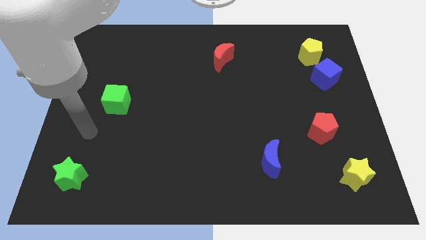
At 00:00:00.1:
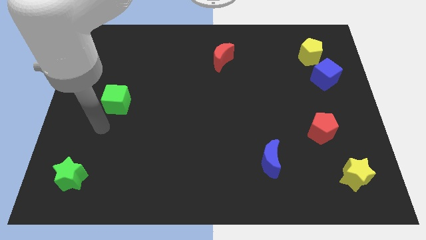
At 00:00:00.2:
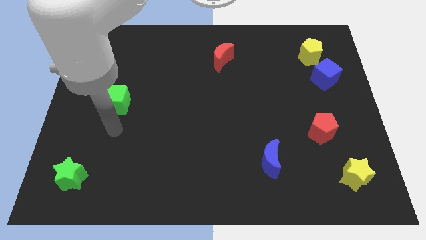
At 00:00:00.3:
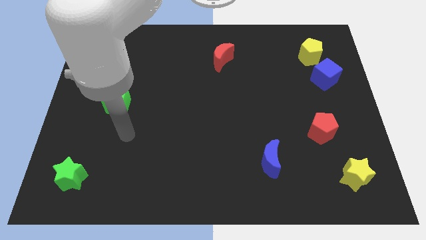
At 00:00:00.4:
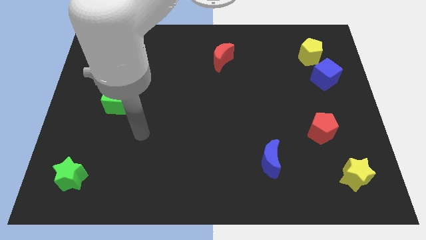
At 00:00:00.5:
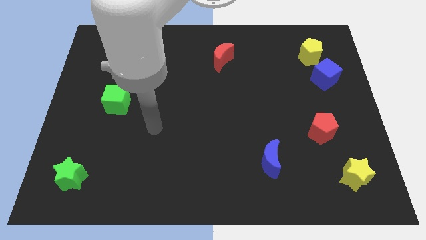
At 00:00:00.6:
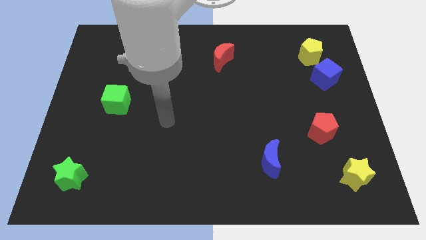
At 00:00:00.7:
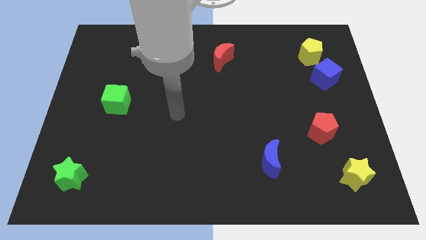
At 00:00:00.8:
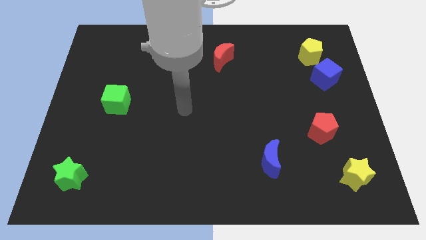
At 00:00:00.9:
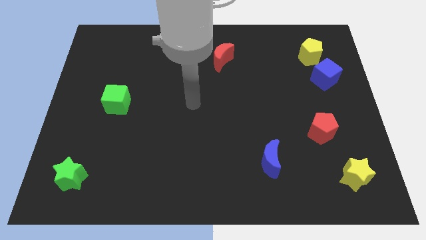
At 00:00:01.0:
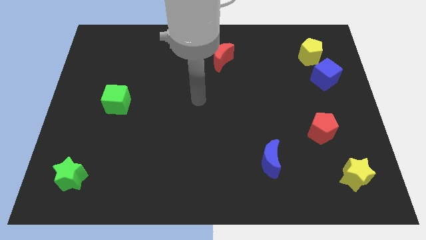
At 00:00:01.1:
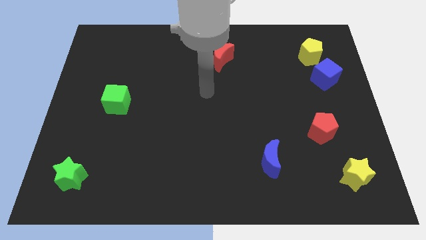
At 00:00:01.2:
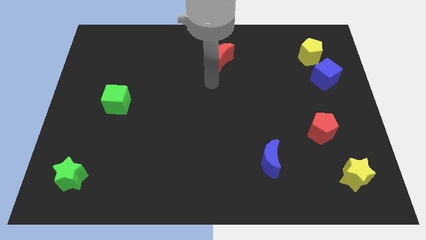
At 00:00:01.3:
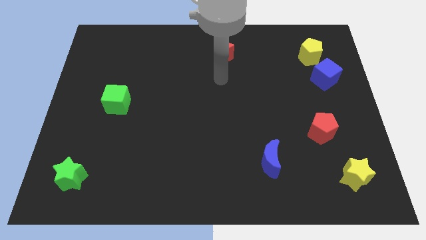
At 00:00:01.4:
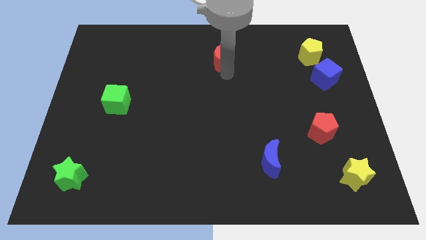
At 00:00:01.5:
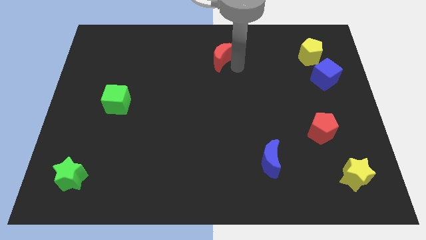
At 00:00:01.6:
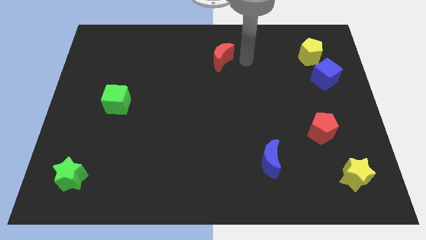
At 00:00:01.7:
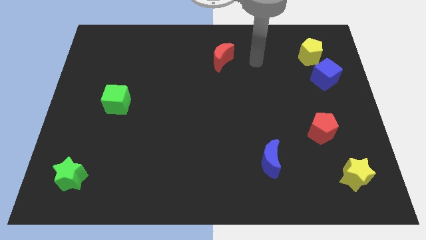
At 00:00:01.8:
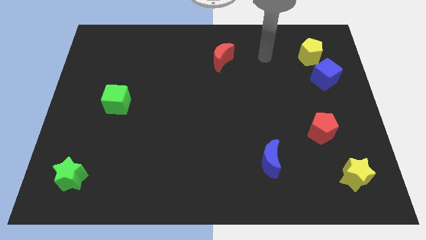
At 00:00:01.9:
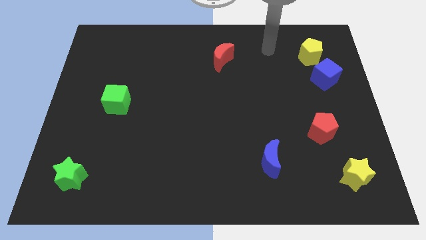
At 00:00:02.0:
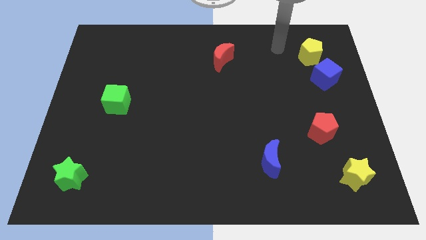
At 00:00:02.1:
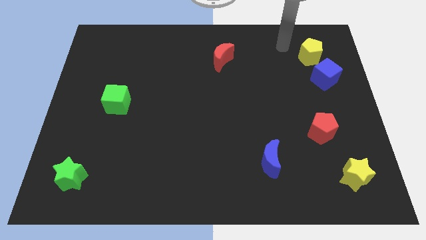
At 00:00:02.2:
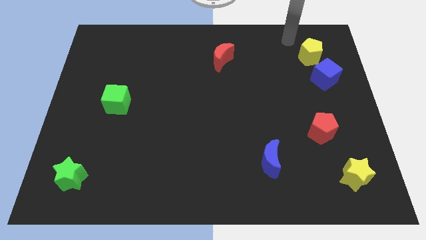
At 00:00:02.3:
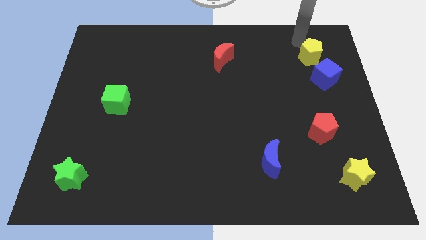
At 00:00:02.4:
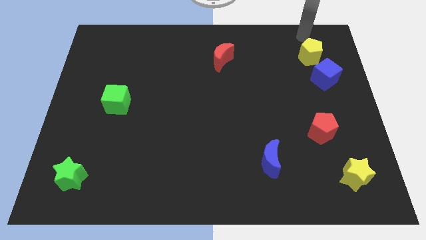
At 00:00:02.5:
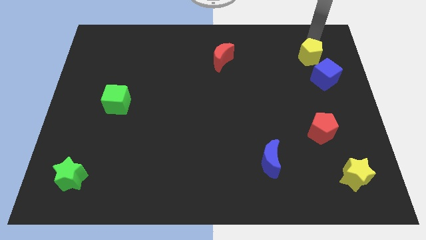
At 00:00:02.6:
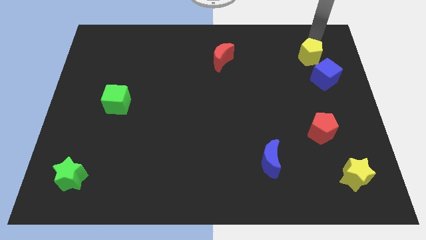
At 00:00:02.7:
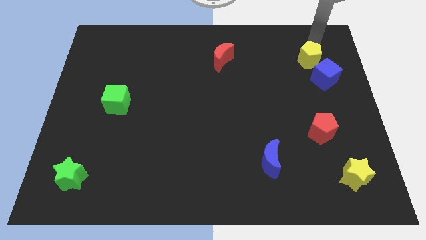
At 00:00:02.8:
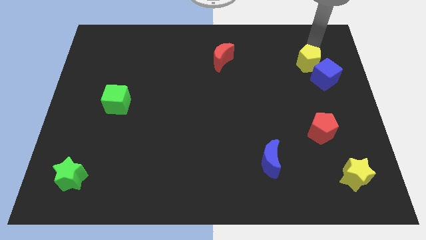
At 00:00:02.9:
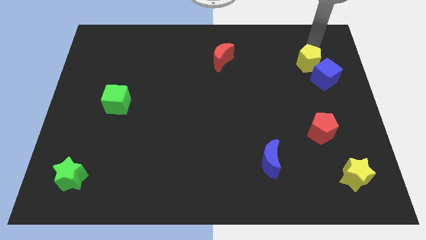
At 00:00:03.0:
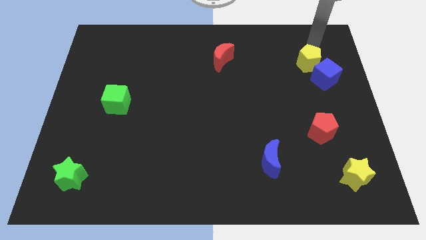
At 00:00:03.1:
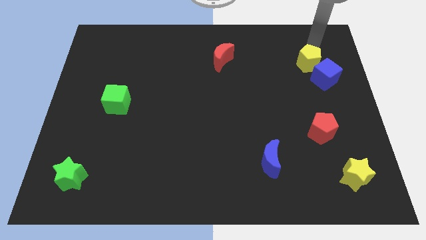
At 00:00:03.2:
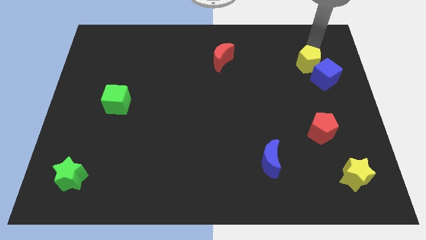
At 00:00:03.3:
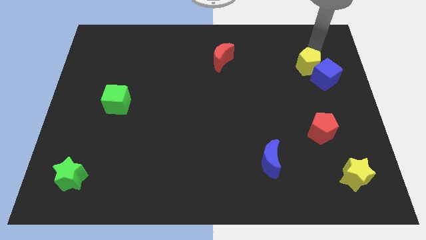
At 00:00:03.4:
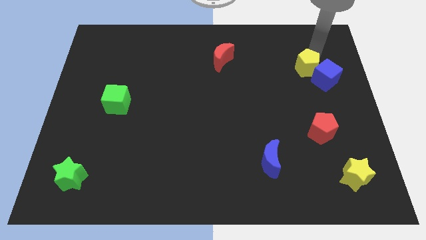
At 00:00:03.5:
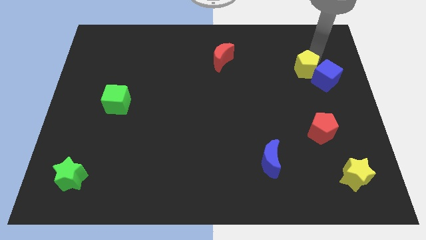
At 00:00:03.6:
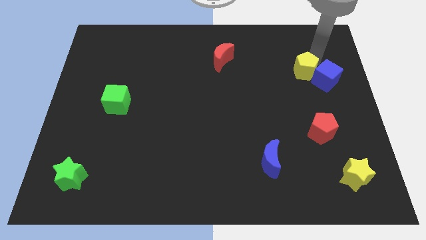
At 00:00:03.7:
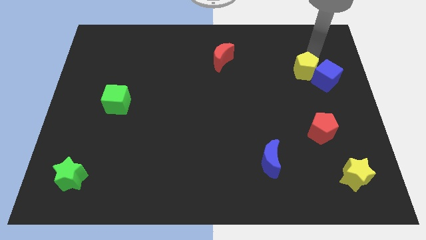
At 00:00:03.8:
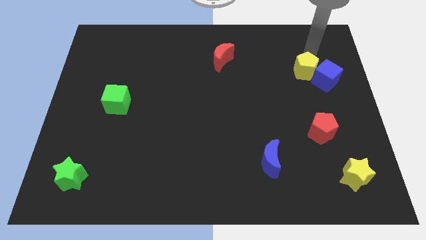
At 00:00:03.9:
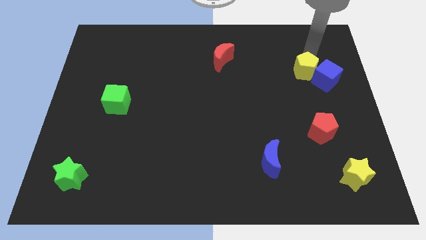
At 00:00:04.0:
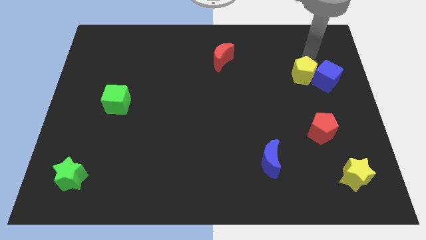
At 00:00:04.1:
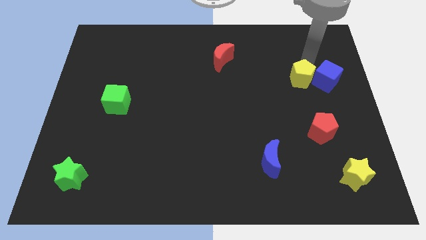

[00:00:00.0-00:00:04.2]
slightly slide the yellow pentagon downwards

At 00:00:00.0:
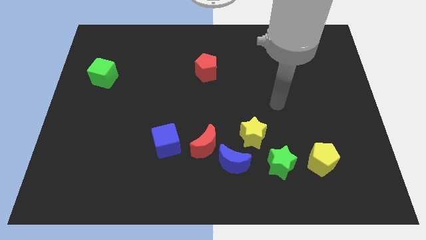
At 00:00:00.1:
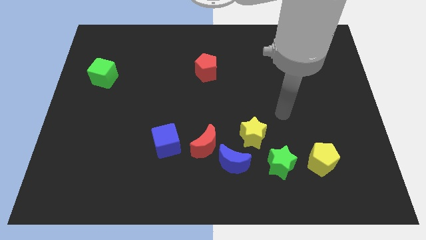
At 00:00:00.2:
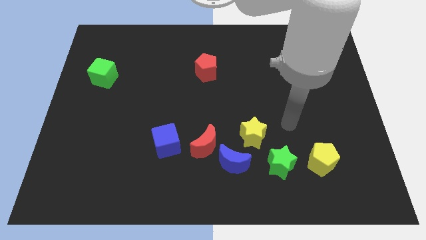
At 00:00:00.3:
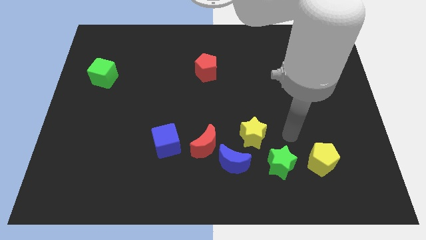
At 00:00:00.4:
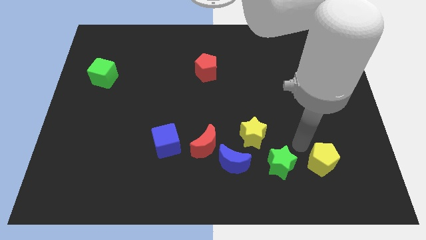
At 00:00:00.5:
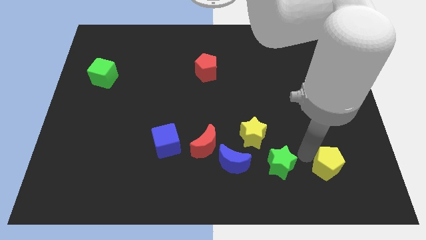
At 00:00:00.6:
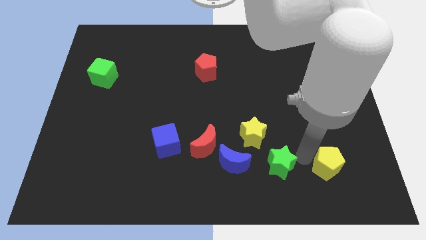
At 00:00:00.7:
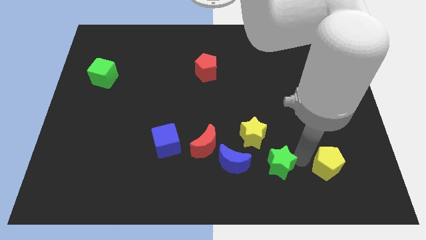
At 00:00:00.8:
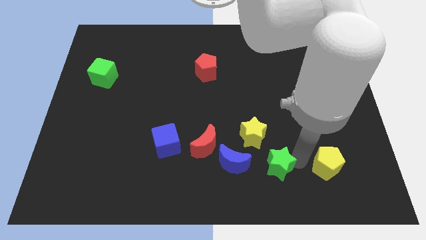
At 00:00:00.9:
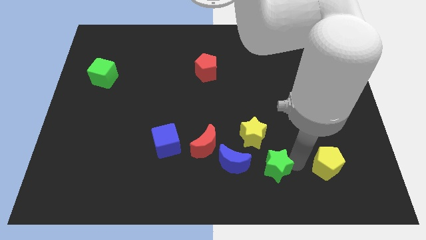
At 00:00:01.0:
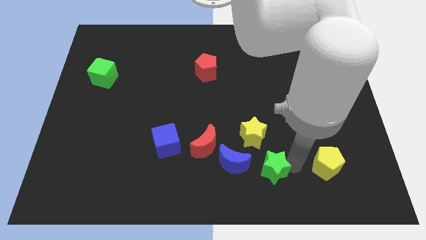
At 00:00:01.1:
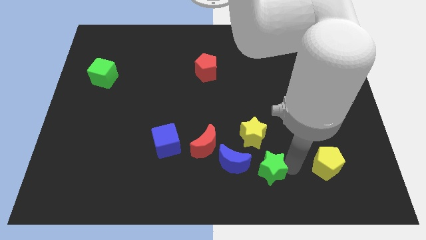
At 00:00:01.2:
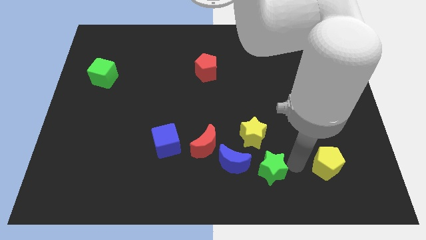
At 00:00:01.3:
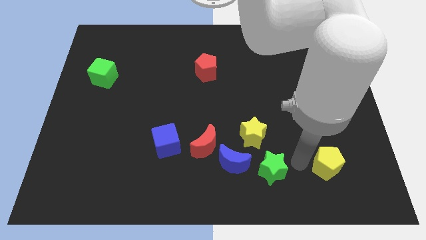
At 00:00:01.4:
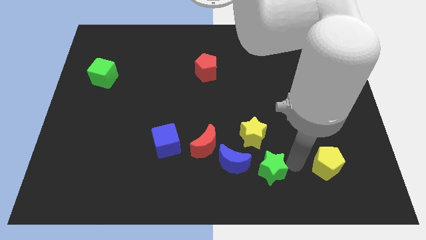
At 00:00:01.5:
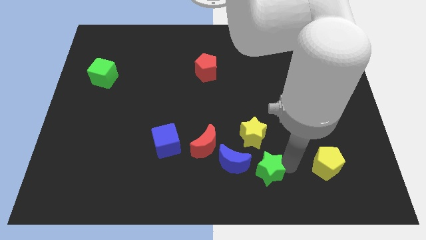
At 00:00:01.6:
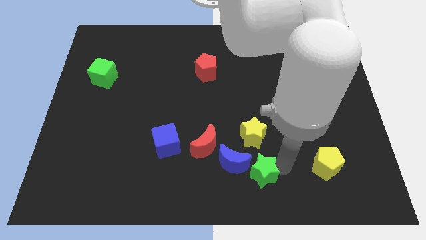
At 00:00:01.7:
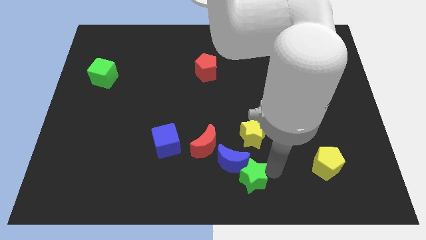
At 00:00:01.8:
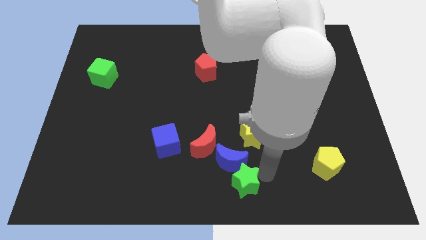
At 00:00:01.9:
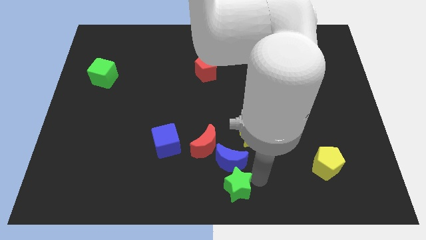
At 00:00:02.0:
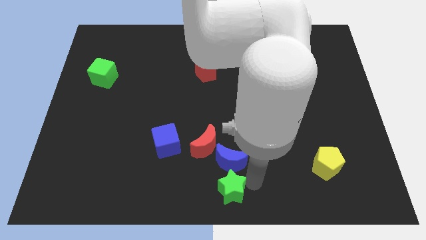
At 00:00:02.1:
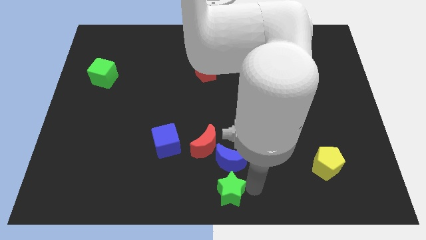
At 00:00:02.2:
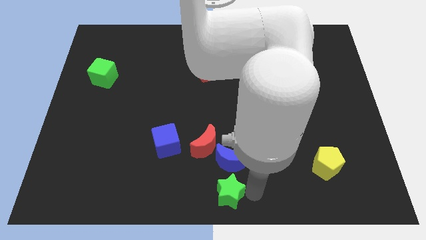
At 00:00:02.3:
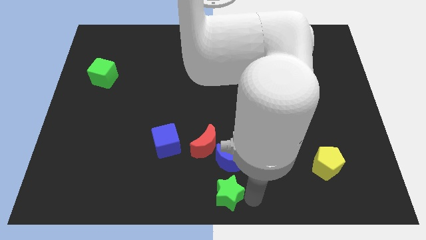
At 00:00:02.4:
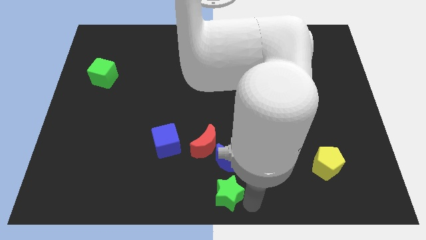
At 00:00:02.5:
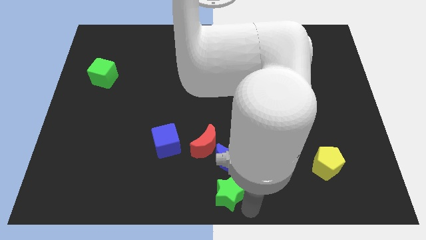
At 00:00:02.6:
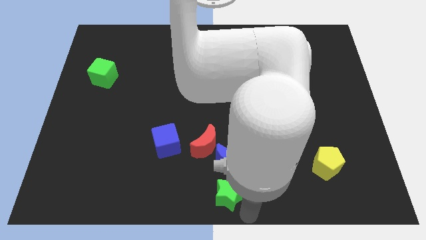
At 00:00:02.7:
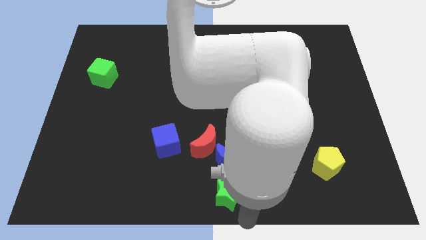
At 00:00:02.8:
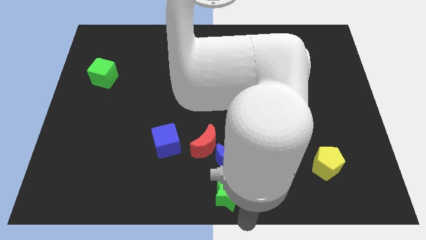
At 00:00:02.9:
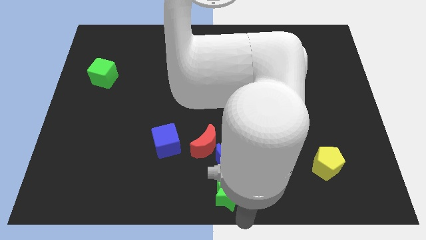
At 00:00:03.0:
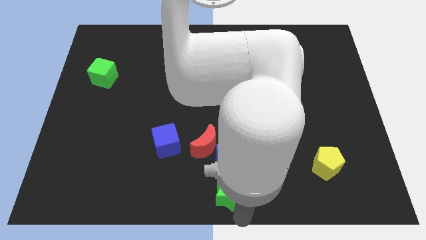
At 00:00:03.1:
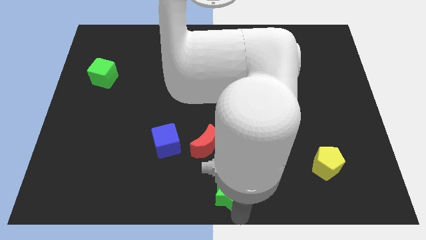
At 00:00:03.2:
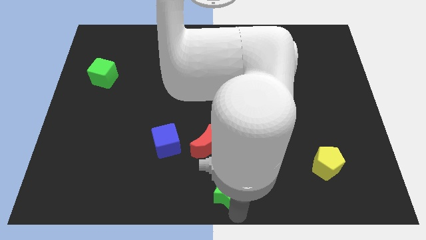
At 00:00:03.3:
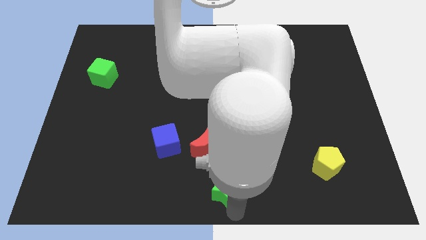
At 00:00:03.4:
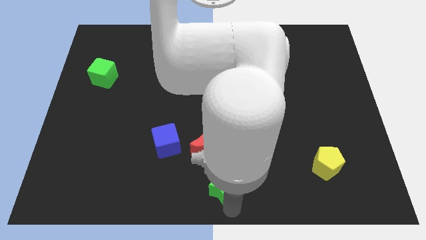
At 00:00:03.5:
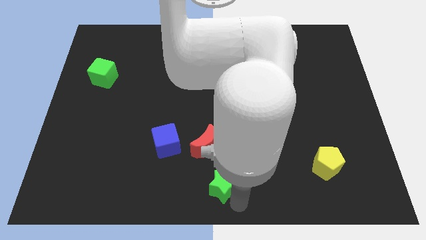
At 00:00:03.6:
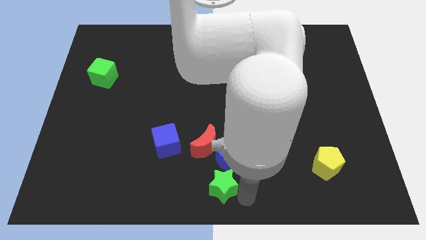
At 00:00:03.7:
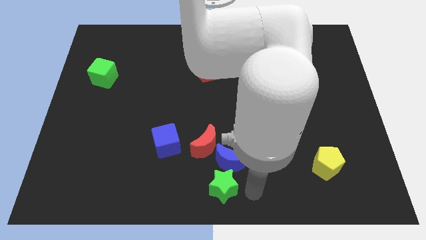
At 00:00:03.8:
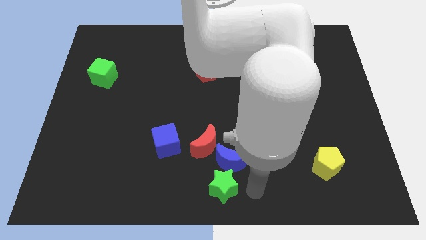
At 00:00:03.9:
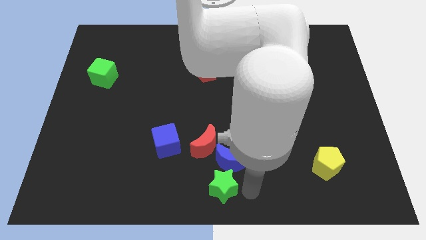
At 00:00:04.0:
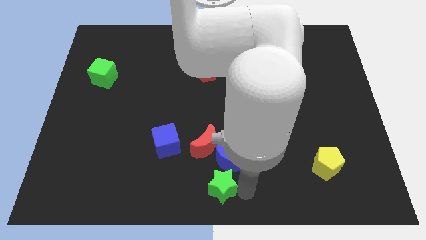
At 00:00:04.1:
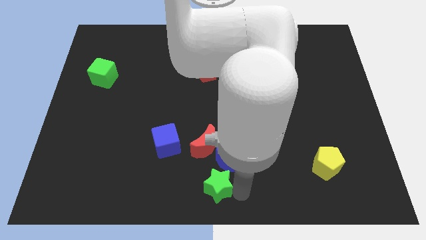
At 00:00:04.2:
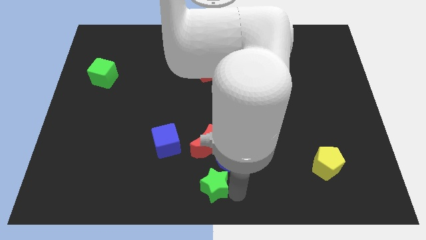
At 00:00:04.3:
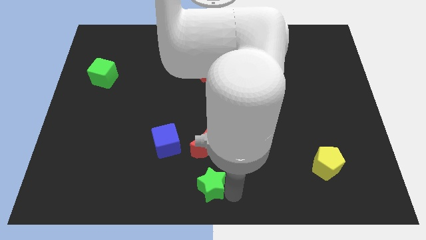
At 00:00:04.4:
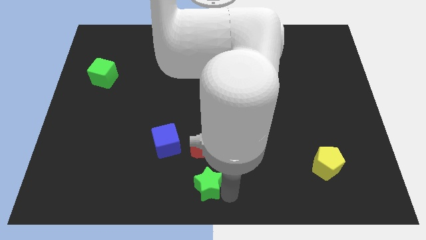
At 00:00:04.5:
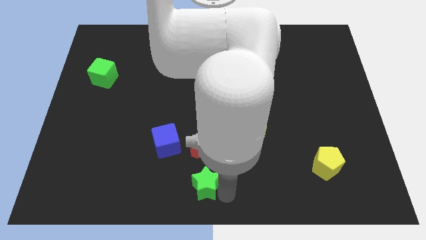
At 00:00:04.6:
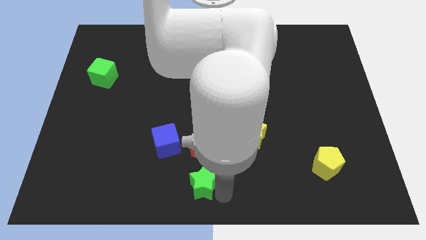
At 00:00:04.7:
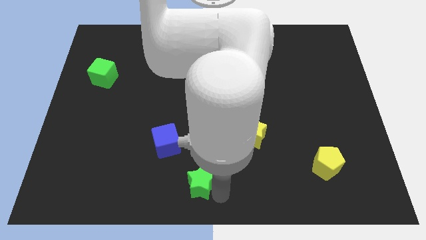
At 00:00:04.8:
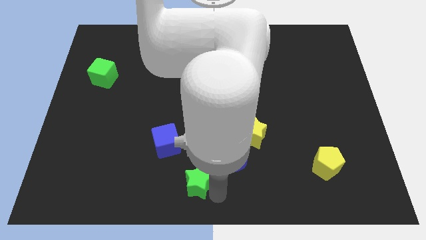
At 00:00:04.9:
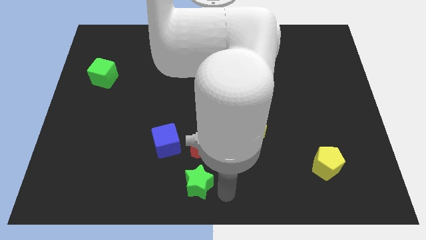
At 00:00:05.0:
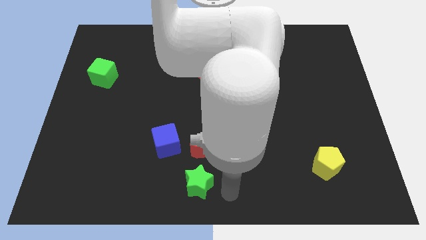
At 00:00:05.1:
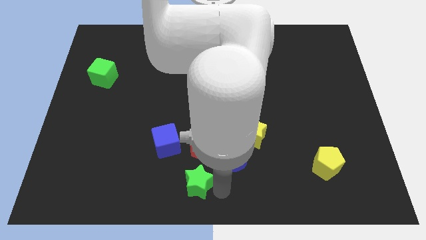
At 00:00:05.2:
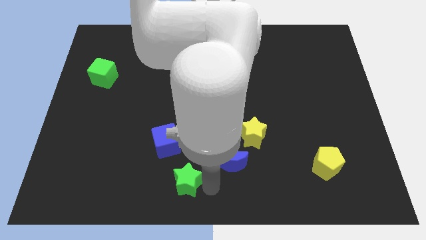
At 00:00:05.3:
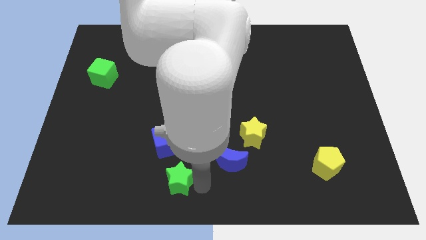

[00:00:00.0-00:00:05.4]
push the green star left
